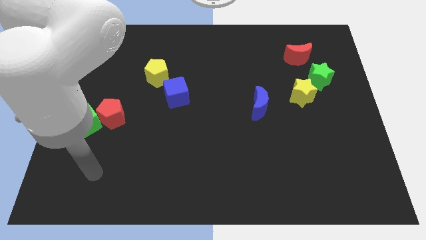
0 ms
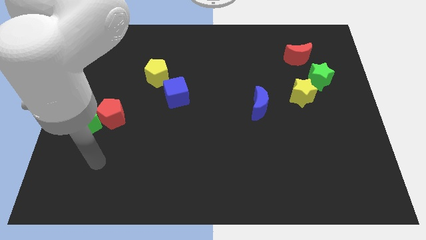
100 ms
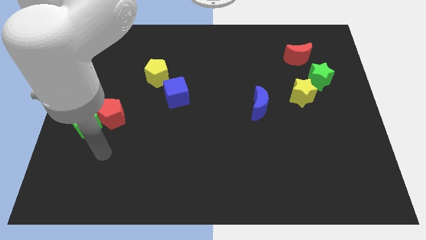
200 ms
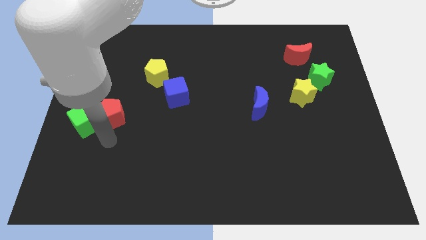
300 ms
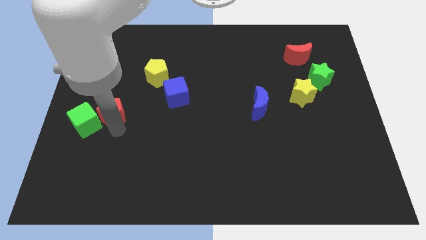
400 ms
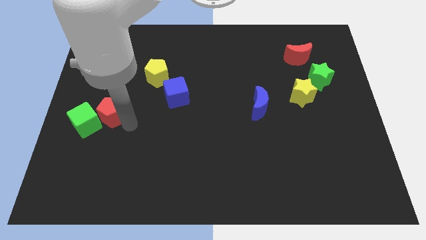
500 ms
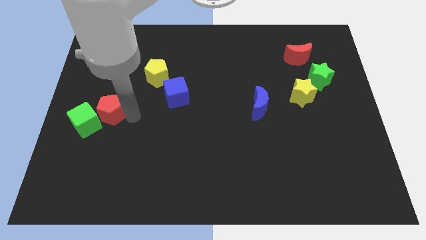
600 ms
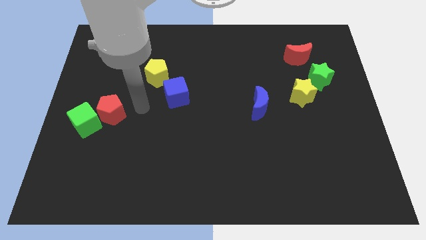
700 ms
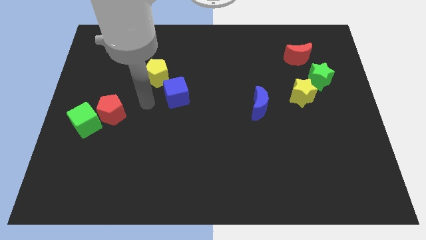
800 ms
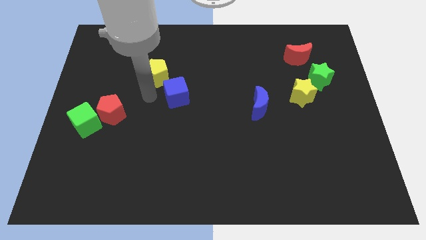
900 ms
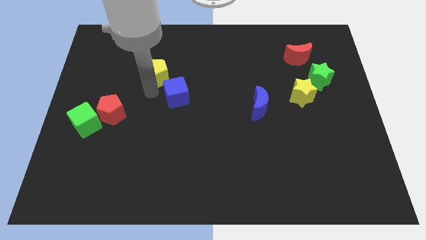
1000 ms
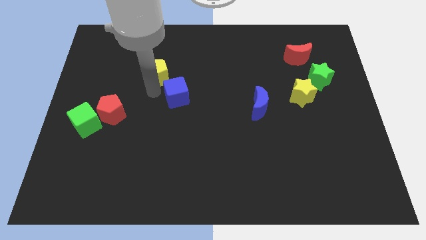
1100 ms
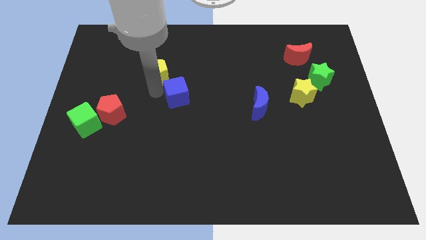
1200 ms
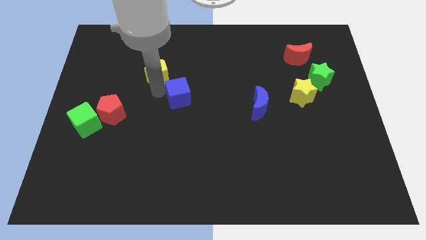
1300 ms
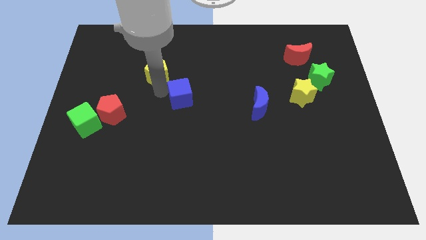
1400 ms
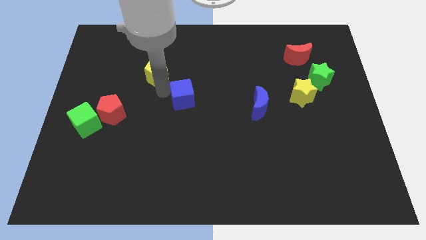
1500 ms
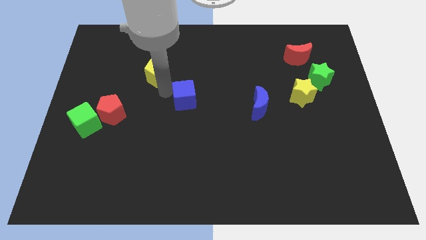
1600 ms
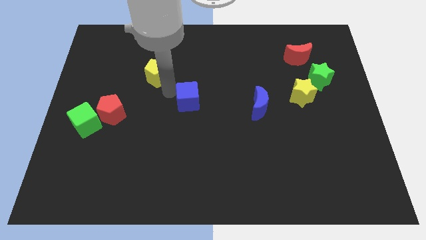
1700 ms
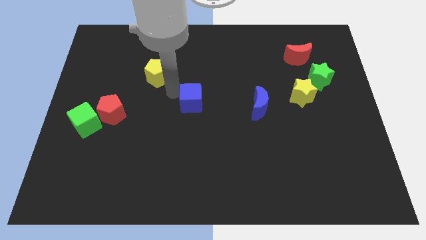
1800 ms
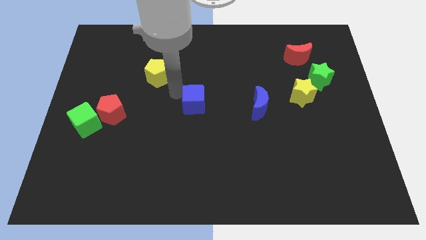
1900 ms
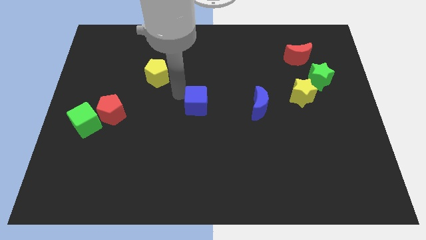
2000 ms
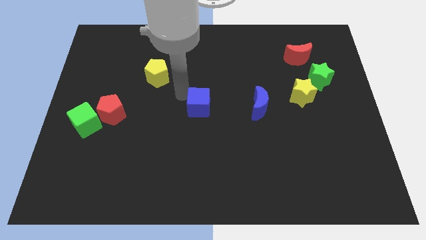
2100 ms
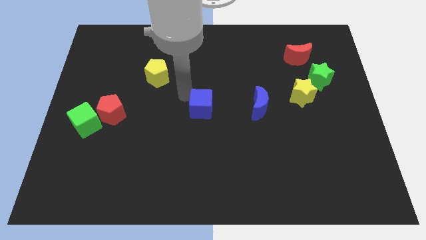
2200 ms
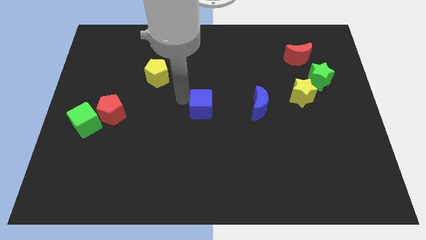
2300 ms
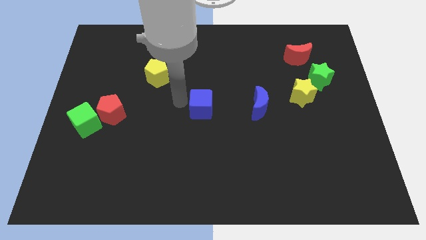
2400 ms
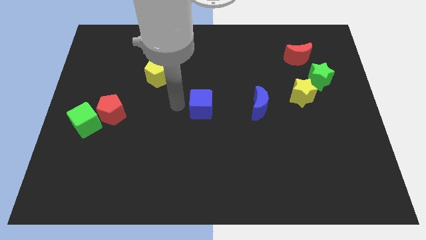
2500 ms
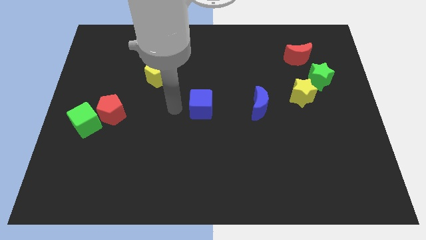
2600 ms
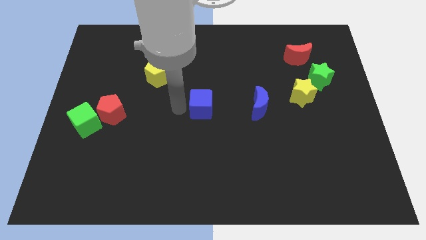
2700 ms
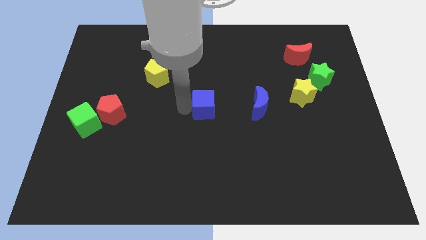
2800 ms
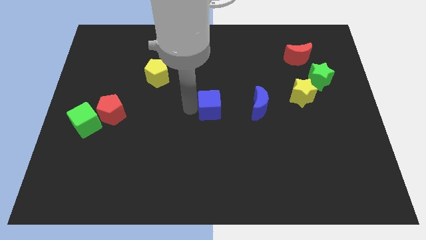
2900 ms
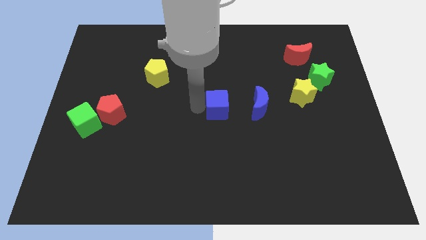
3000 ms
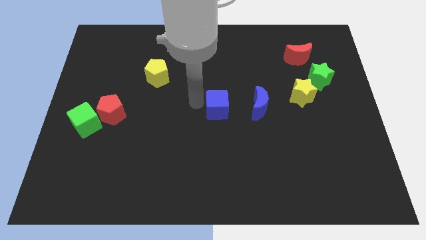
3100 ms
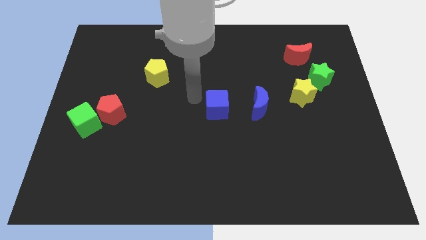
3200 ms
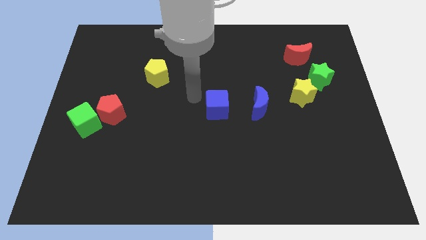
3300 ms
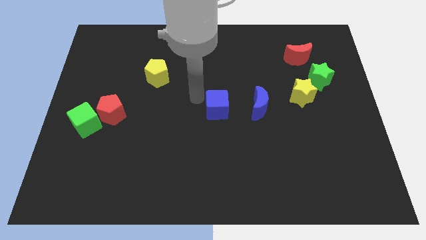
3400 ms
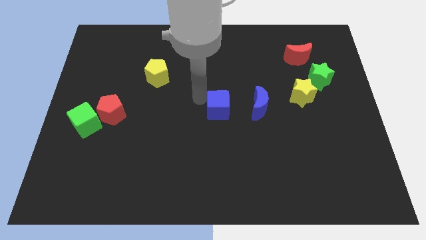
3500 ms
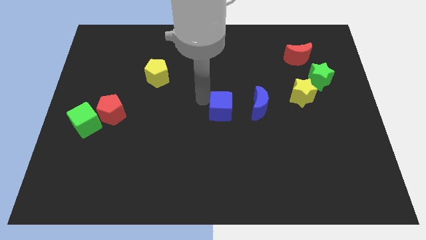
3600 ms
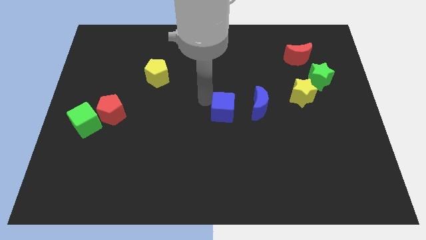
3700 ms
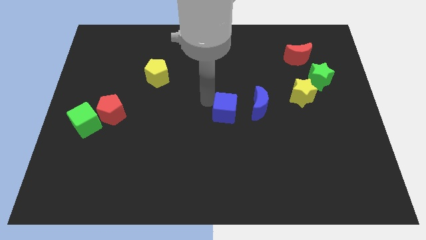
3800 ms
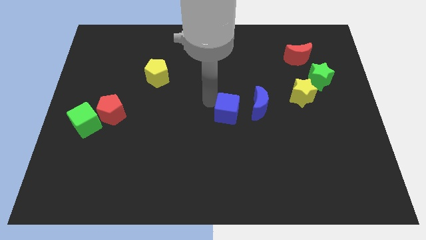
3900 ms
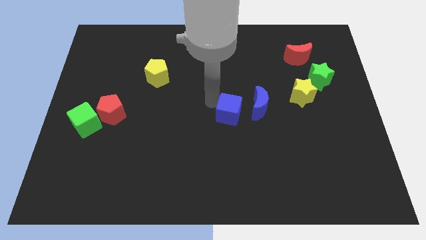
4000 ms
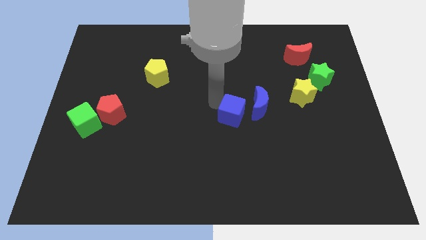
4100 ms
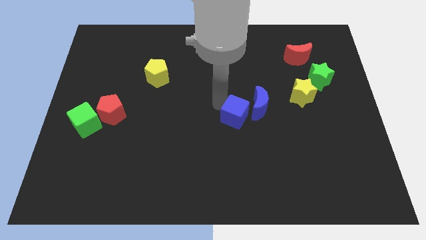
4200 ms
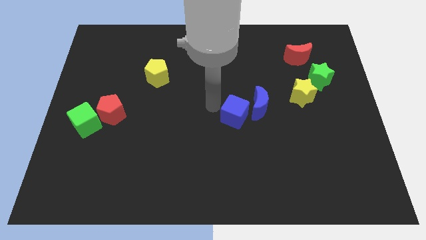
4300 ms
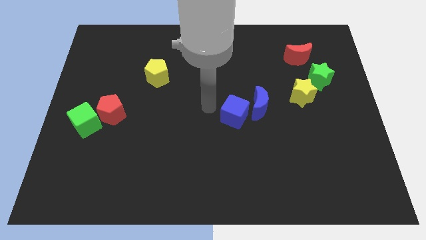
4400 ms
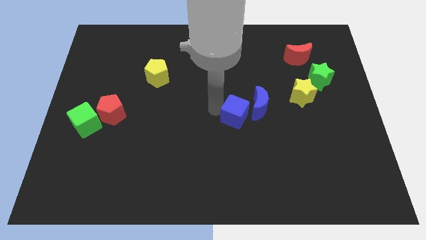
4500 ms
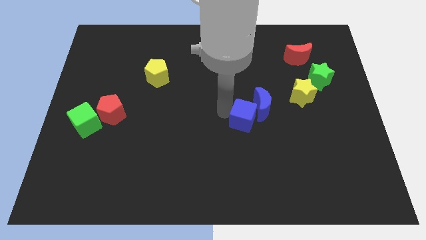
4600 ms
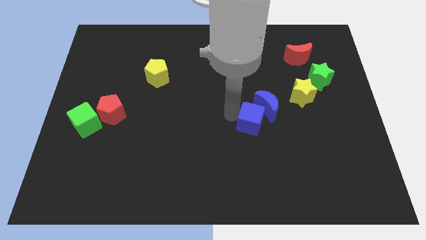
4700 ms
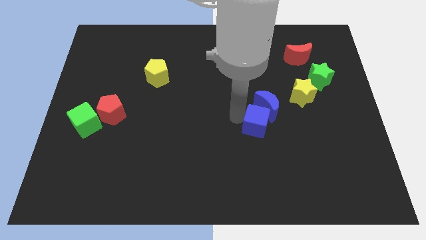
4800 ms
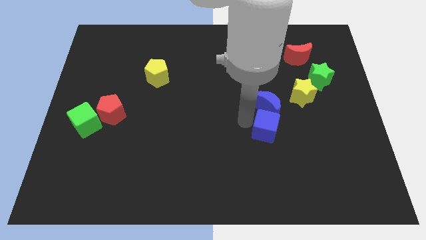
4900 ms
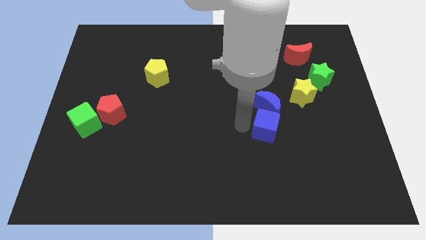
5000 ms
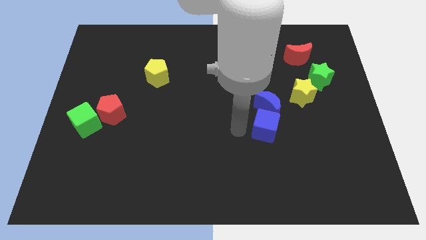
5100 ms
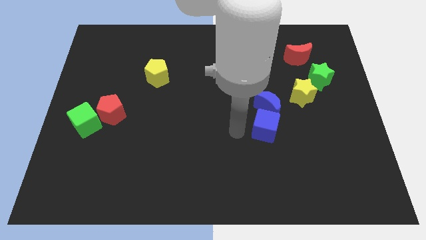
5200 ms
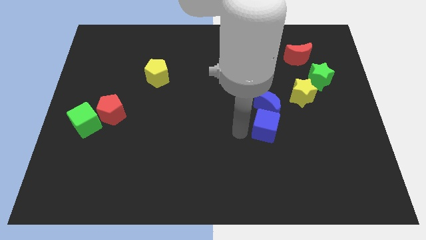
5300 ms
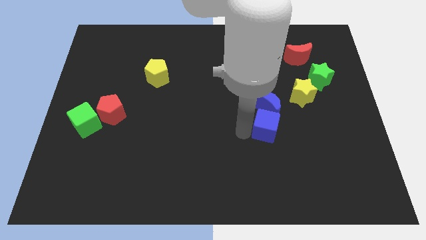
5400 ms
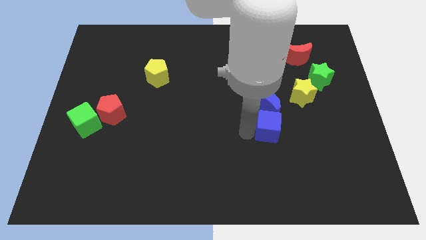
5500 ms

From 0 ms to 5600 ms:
slide the blue cube to the bottom right of the blue moon

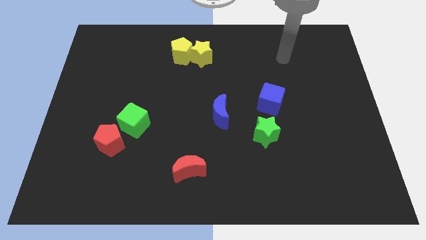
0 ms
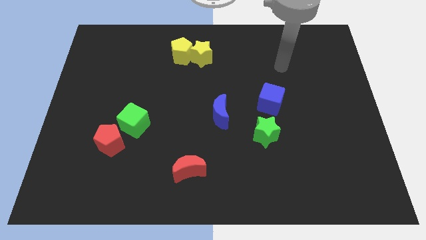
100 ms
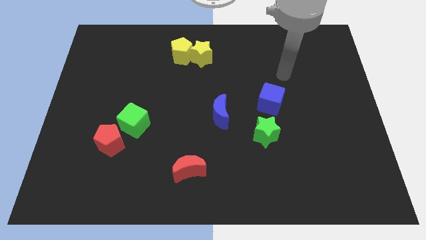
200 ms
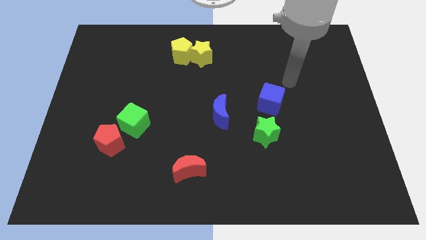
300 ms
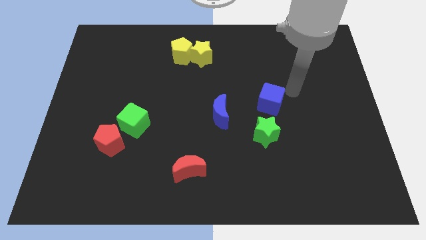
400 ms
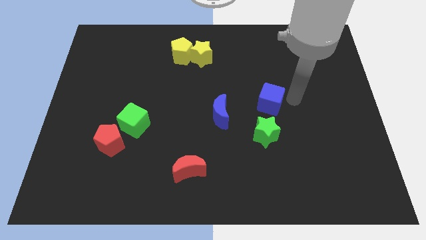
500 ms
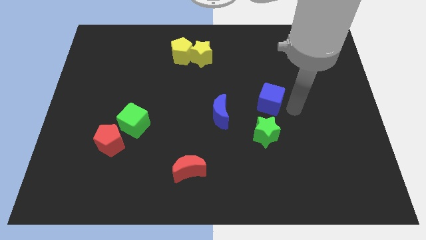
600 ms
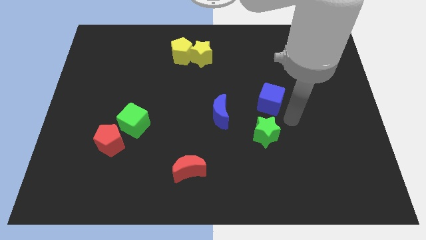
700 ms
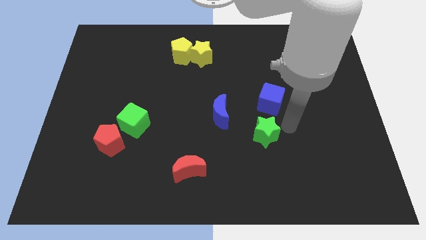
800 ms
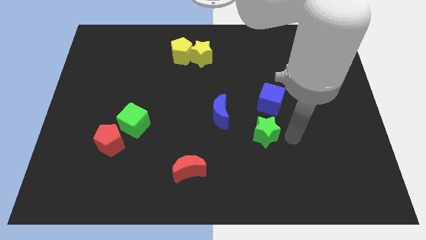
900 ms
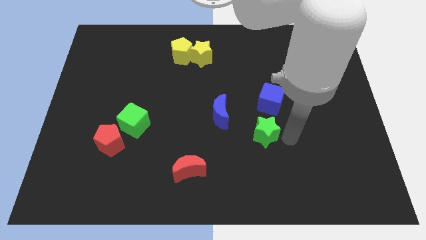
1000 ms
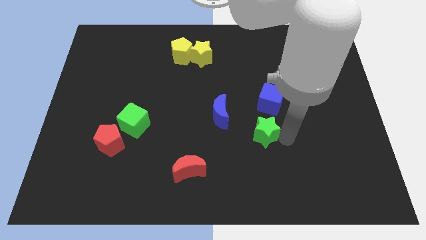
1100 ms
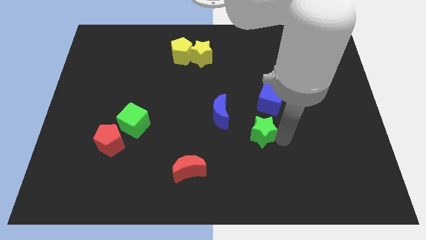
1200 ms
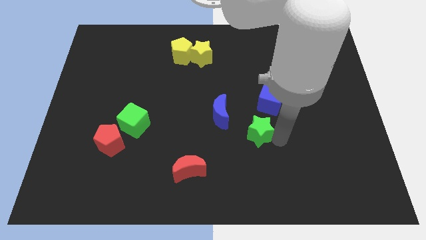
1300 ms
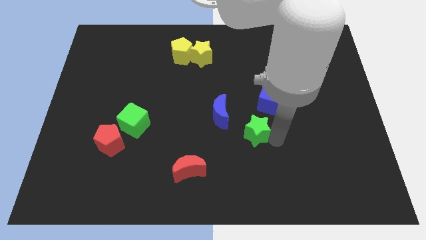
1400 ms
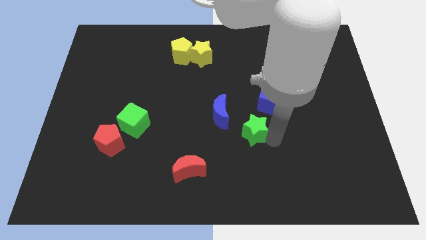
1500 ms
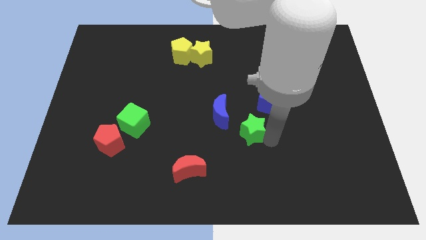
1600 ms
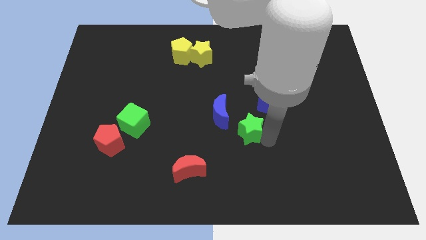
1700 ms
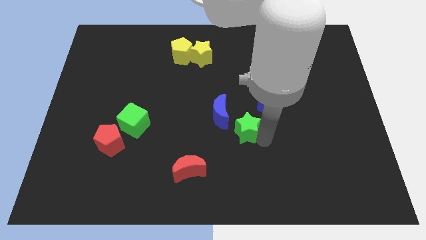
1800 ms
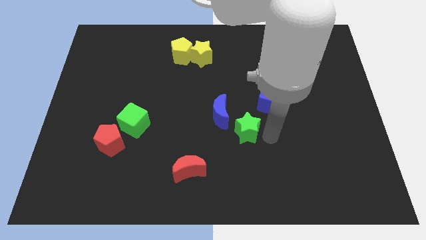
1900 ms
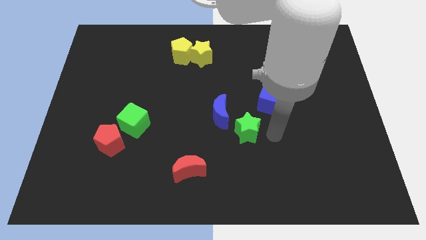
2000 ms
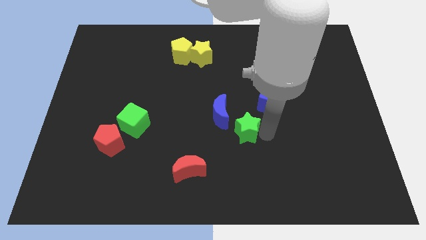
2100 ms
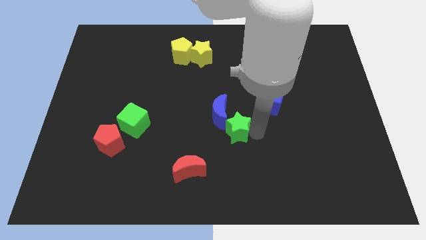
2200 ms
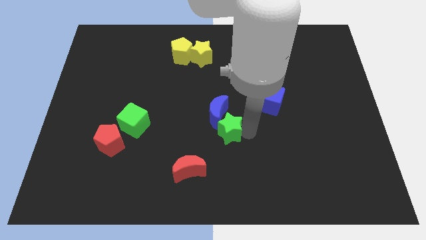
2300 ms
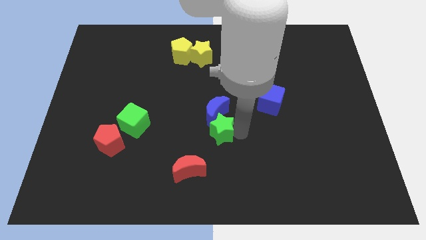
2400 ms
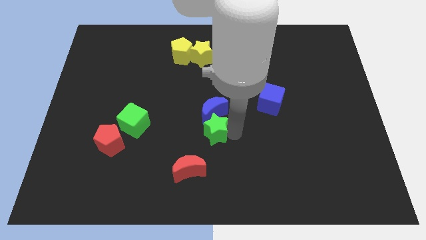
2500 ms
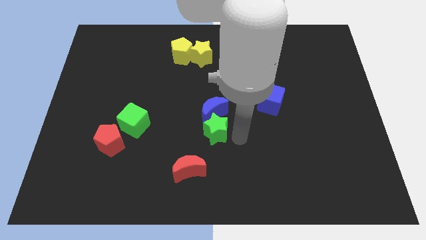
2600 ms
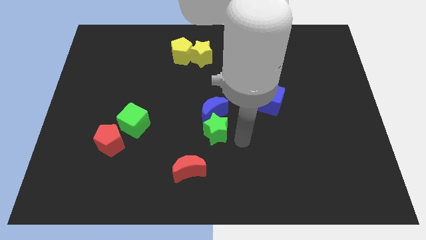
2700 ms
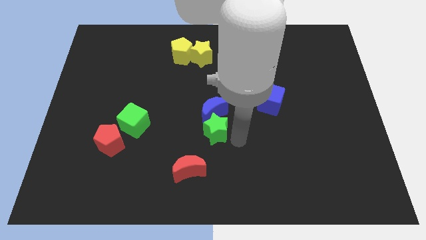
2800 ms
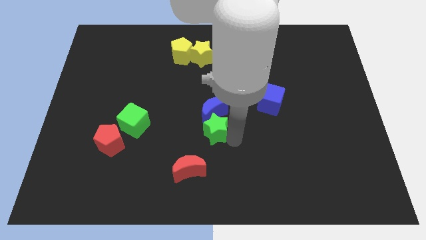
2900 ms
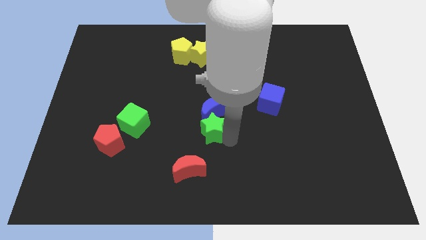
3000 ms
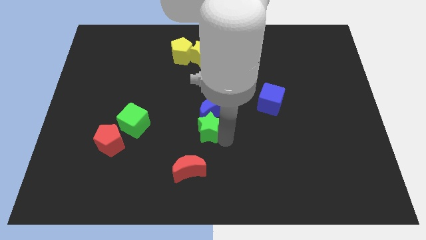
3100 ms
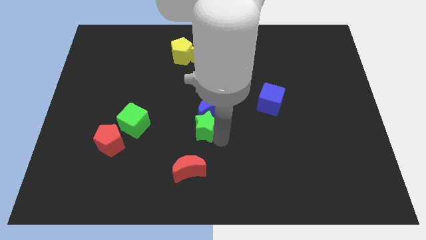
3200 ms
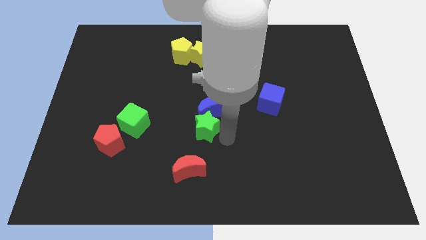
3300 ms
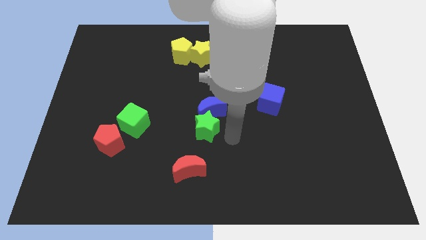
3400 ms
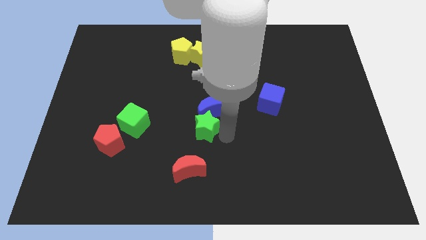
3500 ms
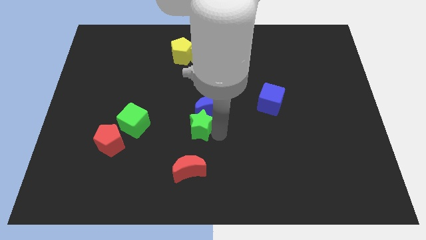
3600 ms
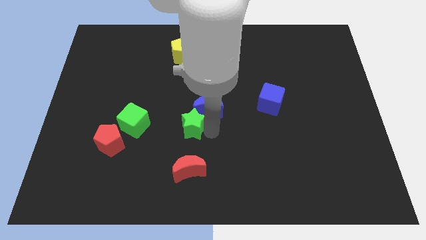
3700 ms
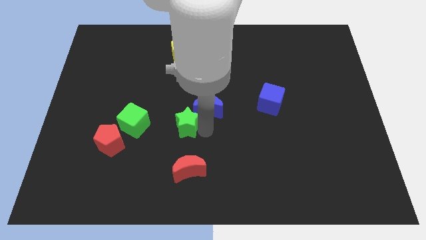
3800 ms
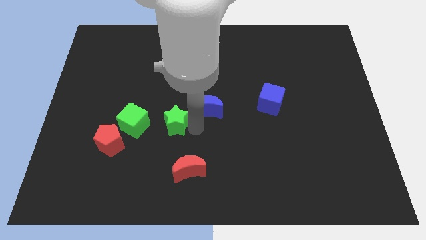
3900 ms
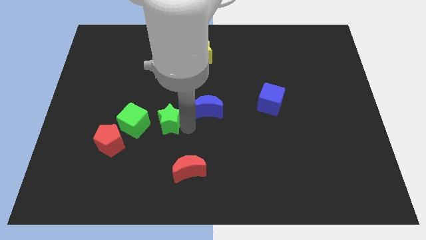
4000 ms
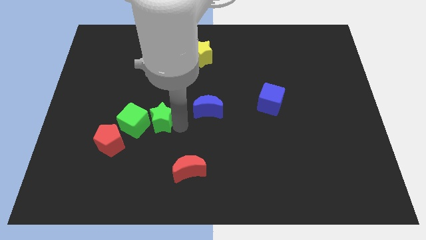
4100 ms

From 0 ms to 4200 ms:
move the green star diagonally up and to the right of the red pentagon
